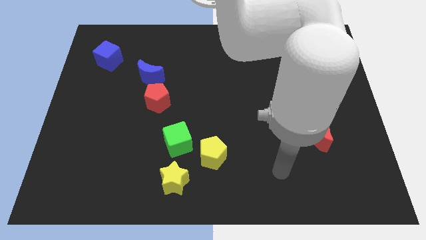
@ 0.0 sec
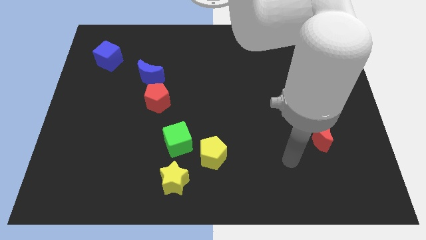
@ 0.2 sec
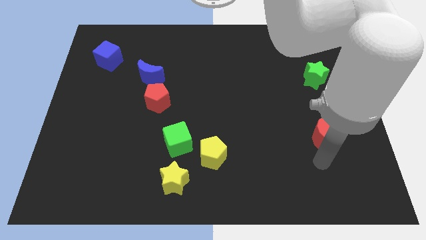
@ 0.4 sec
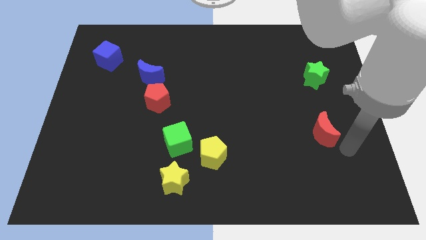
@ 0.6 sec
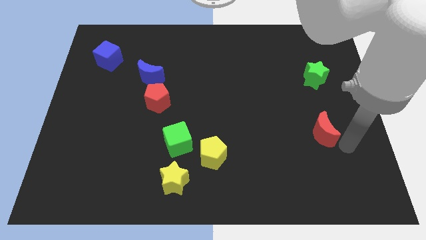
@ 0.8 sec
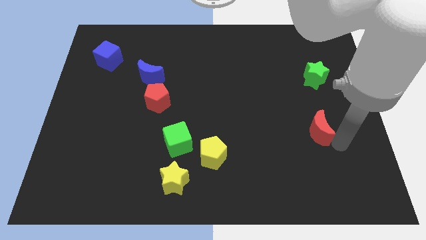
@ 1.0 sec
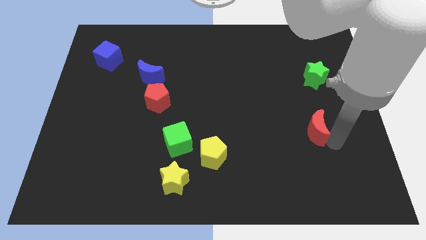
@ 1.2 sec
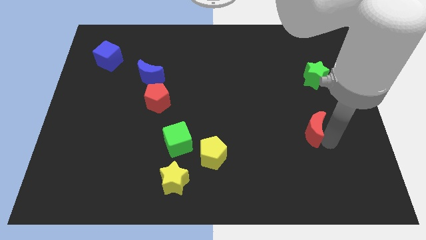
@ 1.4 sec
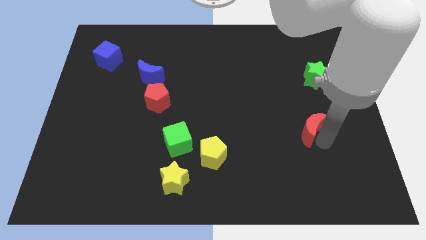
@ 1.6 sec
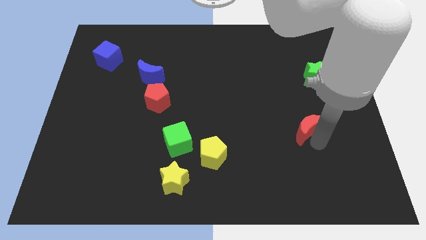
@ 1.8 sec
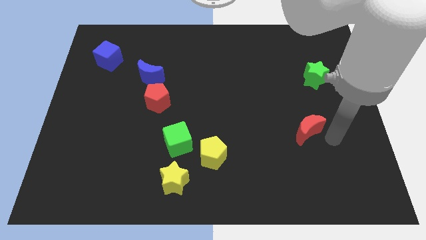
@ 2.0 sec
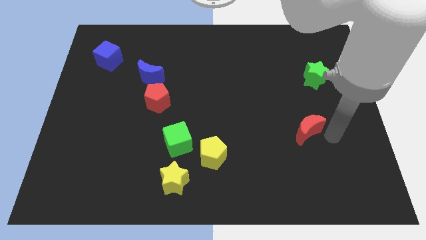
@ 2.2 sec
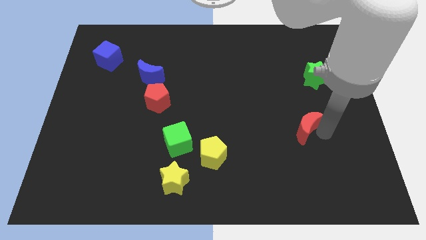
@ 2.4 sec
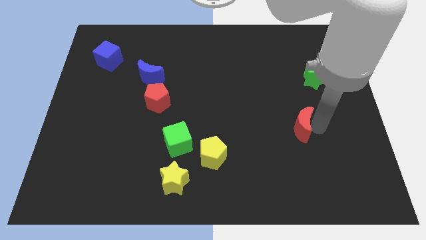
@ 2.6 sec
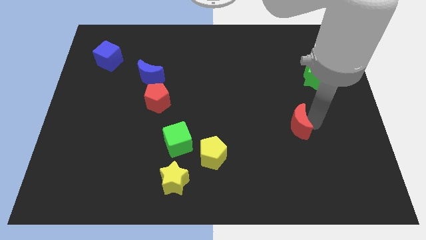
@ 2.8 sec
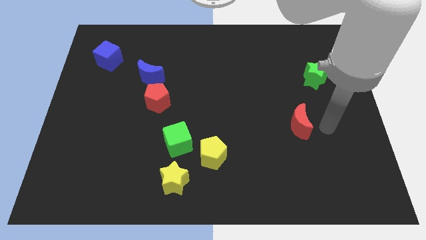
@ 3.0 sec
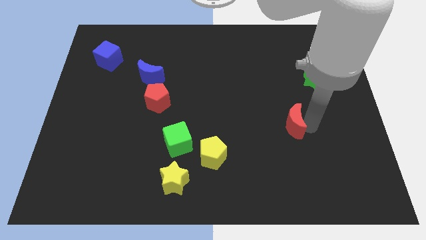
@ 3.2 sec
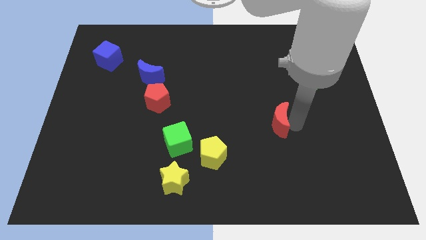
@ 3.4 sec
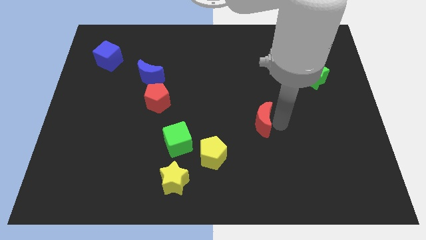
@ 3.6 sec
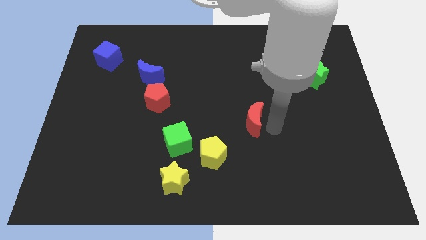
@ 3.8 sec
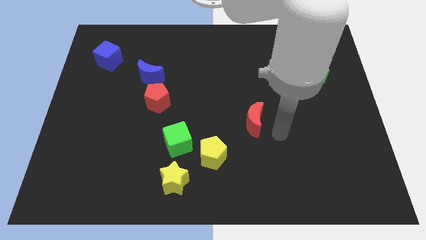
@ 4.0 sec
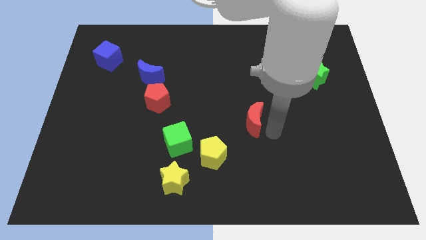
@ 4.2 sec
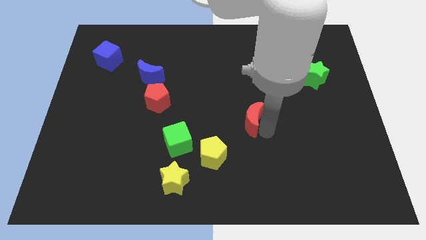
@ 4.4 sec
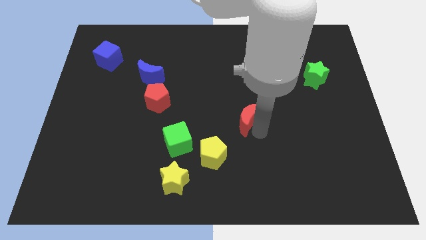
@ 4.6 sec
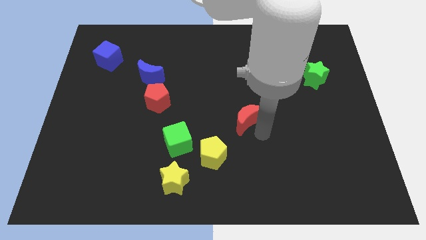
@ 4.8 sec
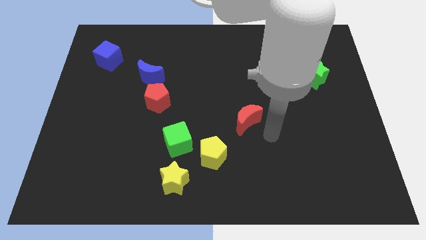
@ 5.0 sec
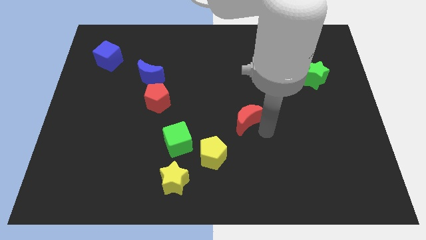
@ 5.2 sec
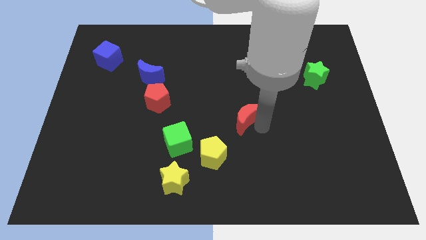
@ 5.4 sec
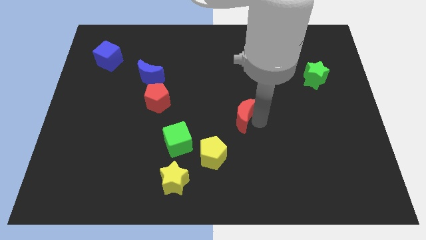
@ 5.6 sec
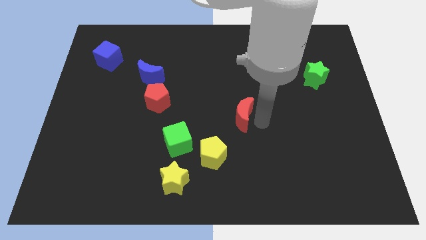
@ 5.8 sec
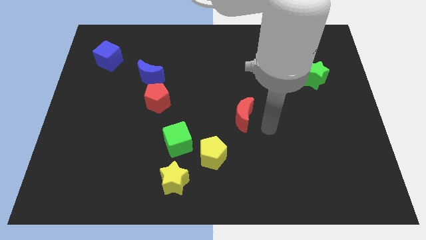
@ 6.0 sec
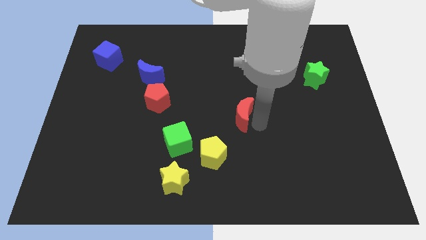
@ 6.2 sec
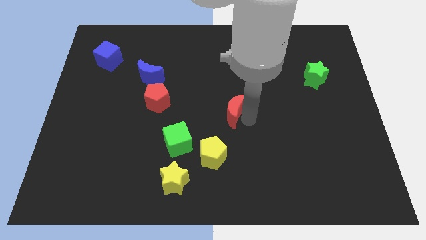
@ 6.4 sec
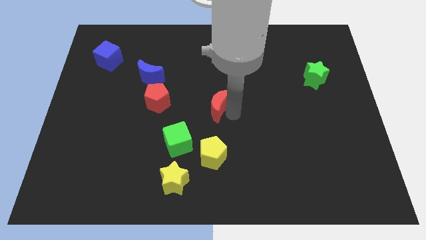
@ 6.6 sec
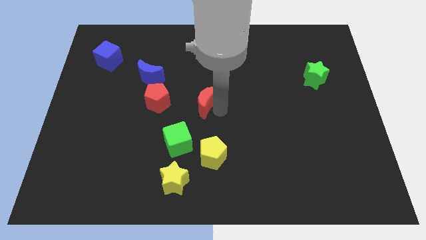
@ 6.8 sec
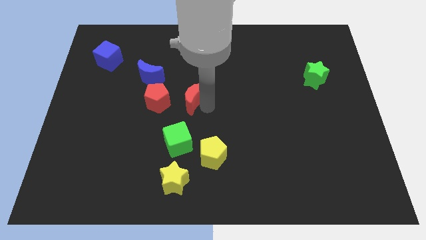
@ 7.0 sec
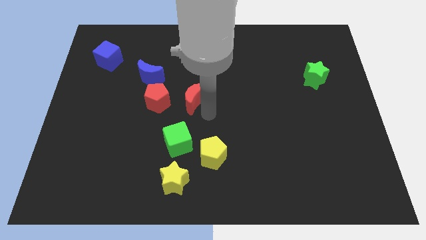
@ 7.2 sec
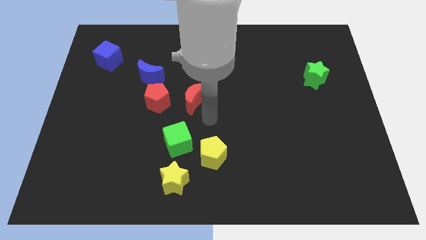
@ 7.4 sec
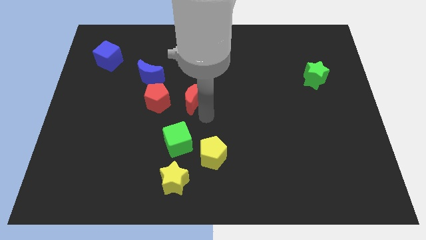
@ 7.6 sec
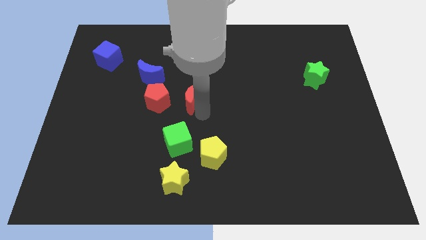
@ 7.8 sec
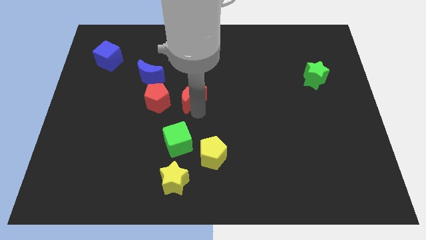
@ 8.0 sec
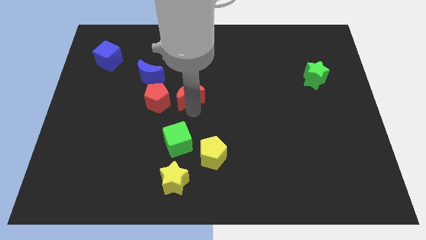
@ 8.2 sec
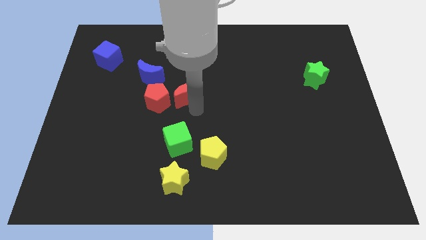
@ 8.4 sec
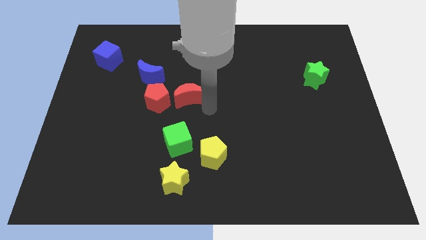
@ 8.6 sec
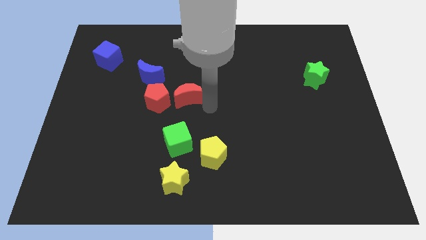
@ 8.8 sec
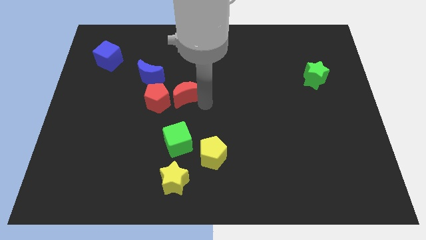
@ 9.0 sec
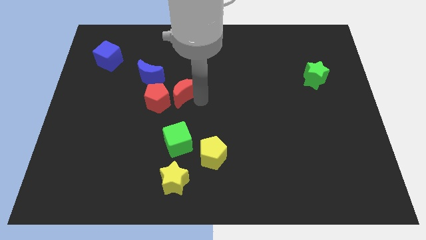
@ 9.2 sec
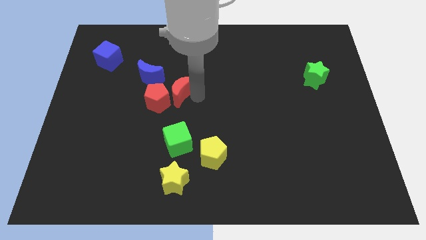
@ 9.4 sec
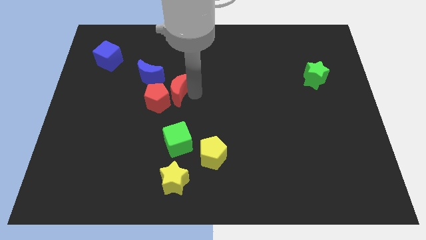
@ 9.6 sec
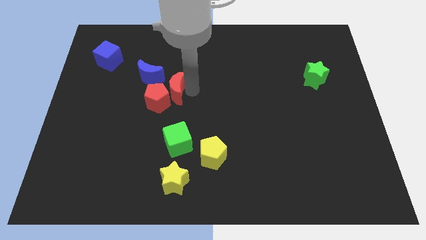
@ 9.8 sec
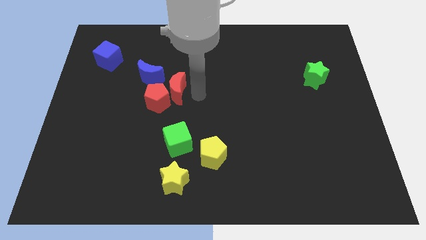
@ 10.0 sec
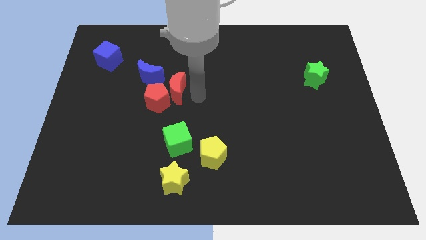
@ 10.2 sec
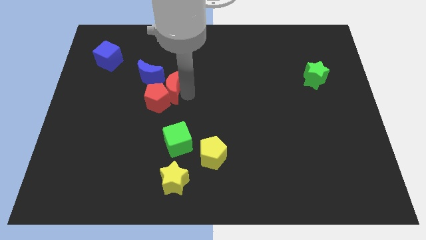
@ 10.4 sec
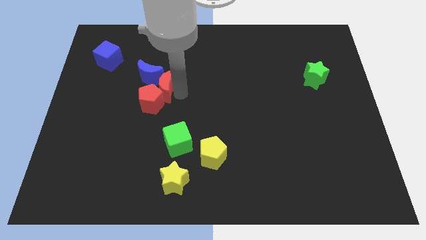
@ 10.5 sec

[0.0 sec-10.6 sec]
put the red moon close to the blue moon

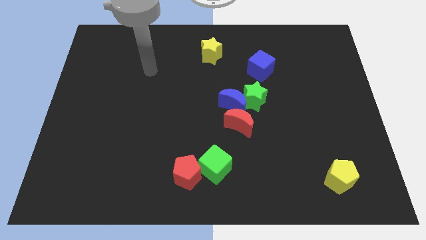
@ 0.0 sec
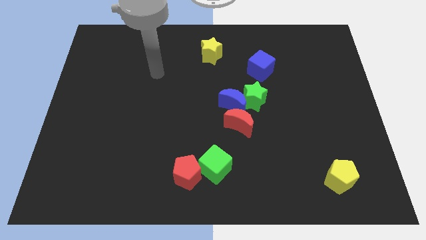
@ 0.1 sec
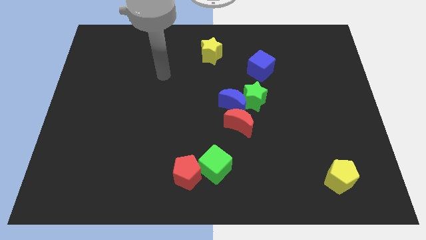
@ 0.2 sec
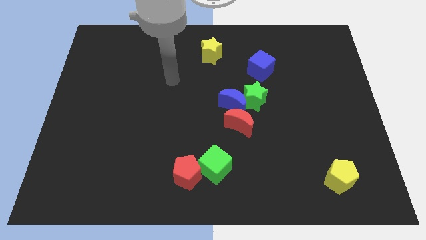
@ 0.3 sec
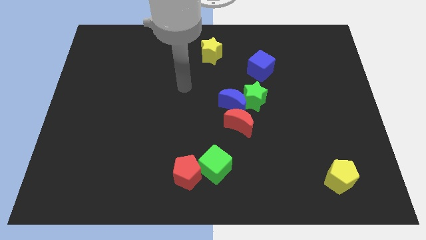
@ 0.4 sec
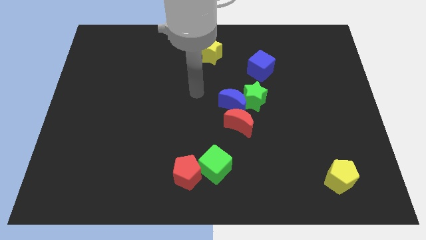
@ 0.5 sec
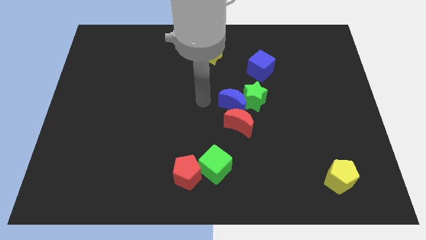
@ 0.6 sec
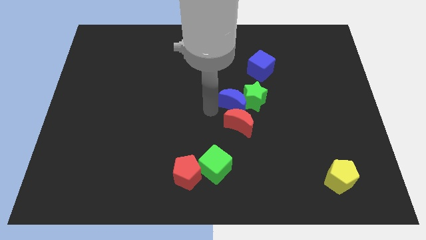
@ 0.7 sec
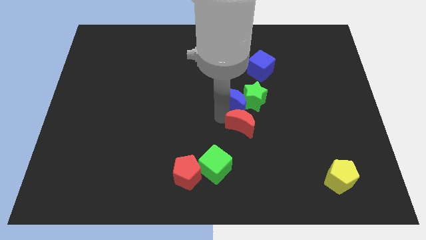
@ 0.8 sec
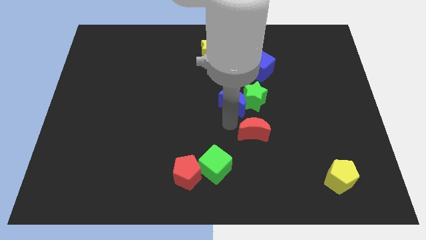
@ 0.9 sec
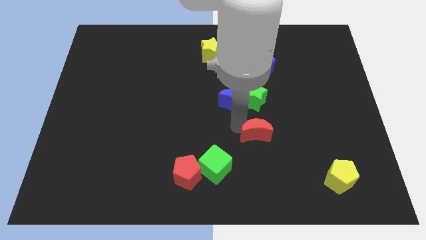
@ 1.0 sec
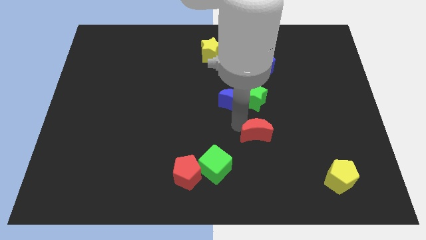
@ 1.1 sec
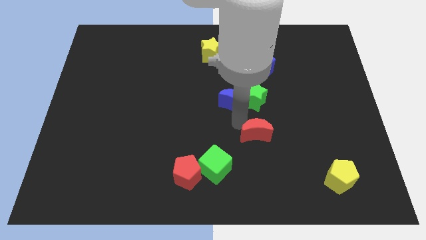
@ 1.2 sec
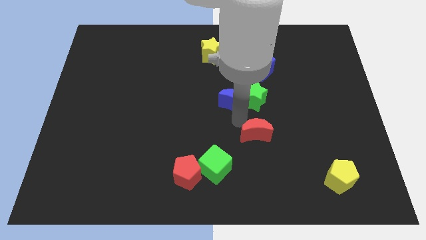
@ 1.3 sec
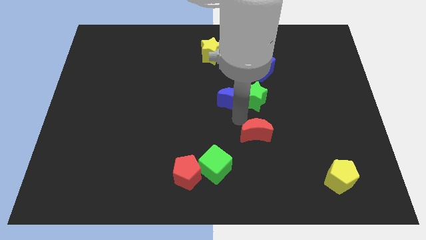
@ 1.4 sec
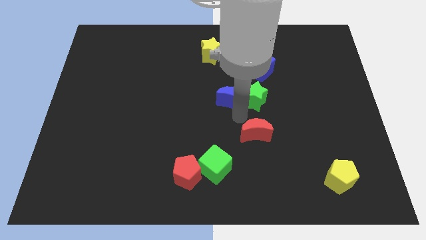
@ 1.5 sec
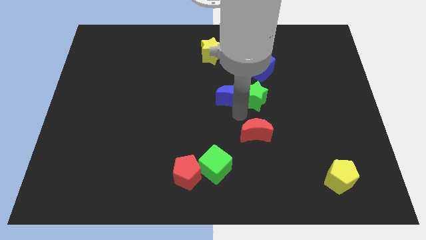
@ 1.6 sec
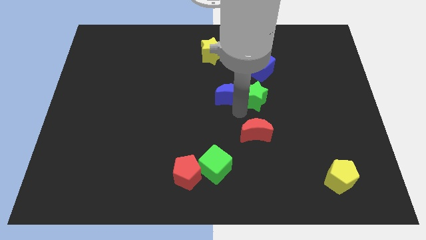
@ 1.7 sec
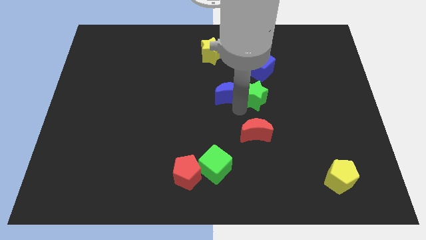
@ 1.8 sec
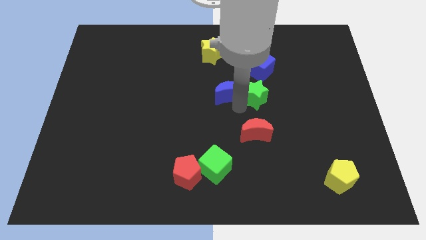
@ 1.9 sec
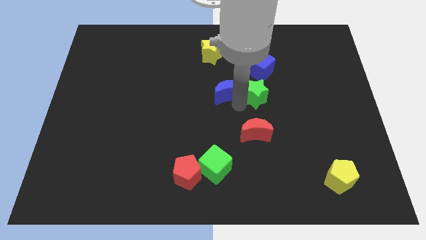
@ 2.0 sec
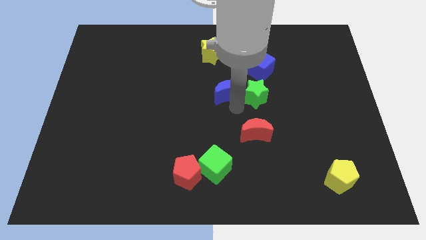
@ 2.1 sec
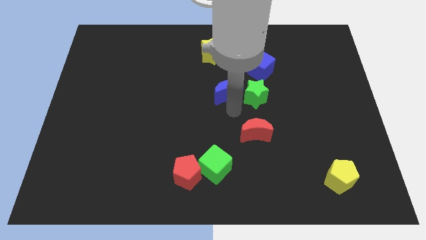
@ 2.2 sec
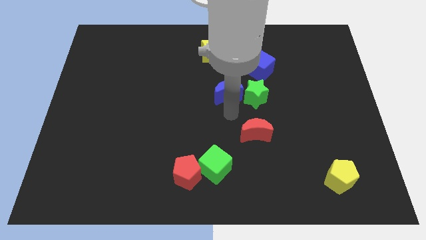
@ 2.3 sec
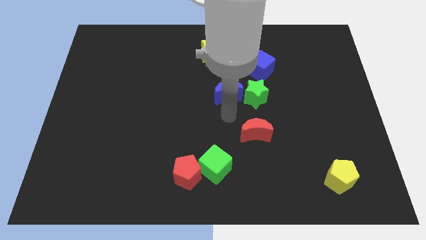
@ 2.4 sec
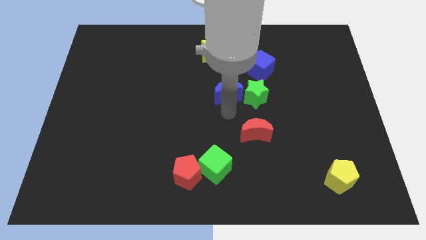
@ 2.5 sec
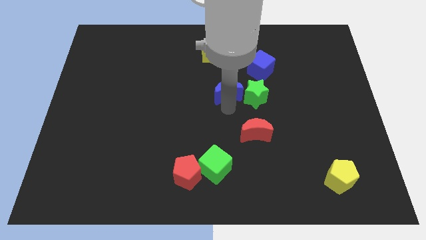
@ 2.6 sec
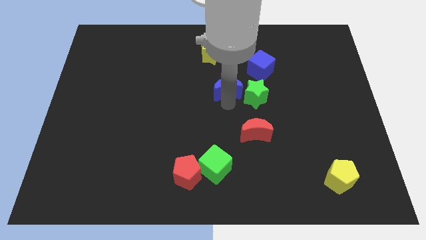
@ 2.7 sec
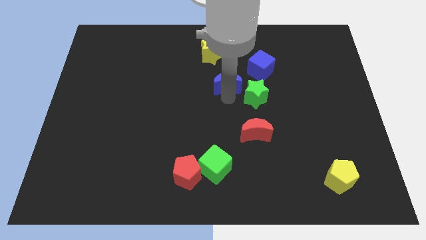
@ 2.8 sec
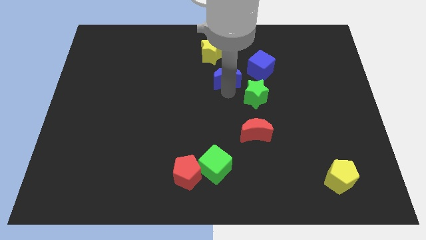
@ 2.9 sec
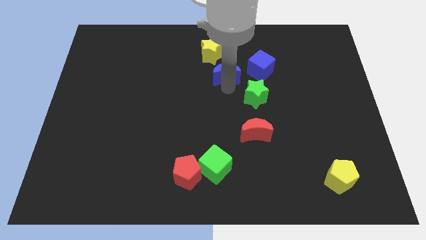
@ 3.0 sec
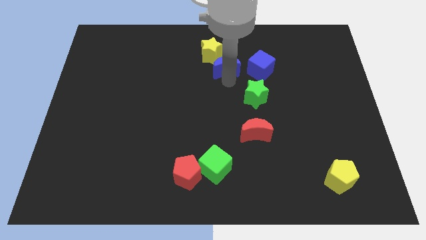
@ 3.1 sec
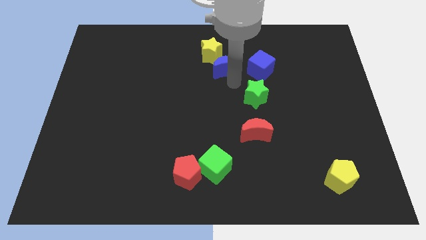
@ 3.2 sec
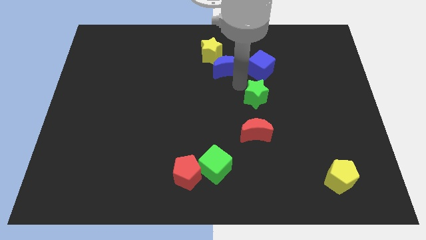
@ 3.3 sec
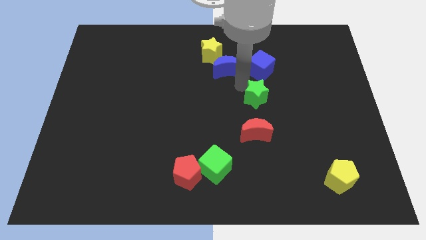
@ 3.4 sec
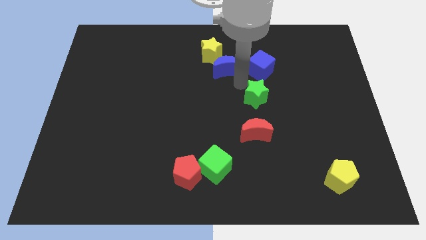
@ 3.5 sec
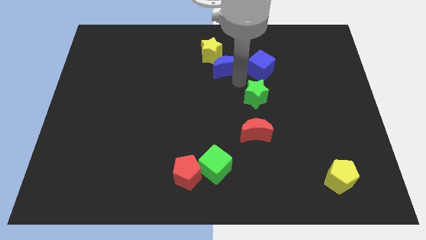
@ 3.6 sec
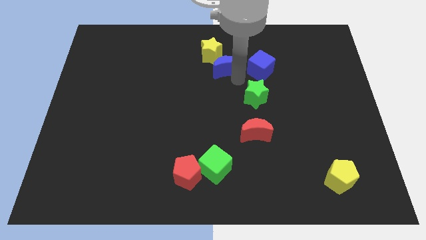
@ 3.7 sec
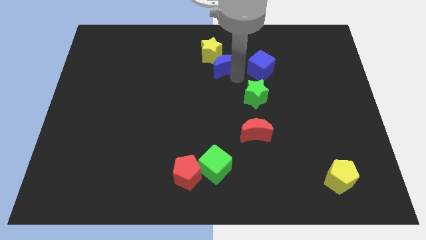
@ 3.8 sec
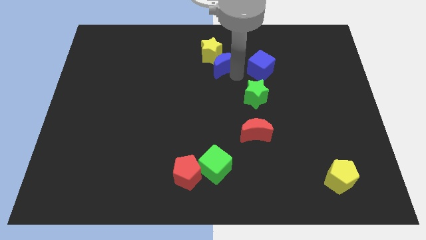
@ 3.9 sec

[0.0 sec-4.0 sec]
slide the blue moon close to the yellow star
